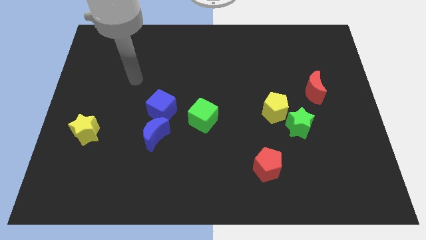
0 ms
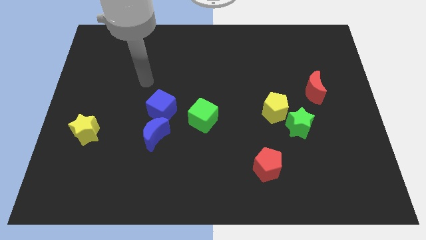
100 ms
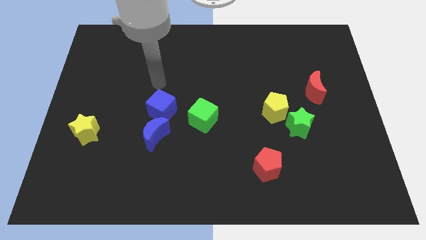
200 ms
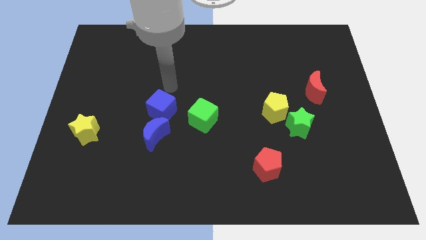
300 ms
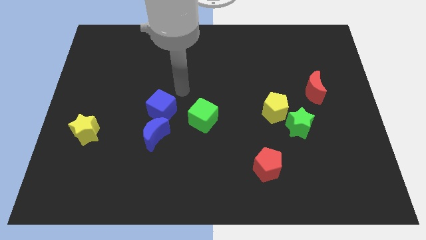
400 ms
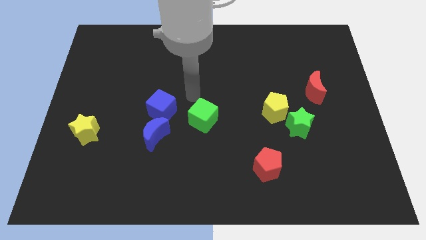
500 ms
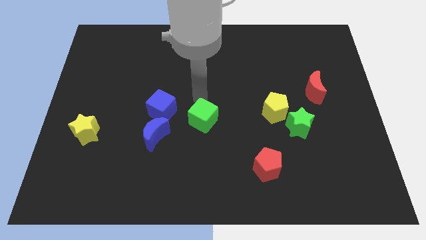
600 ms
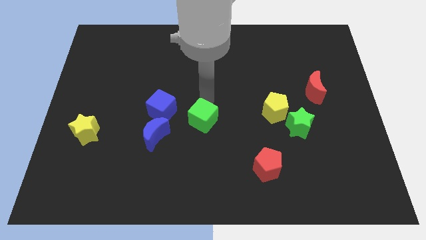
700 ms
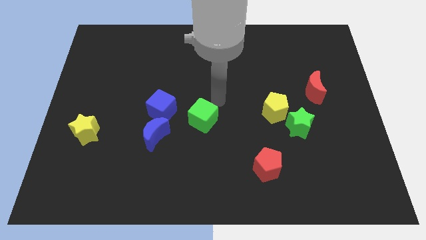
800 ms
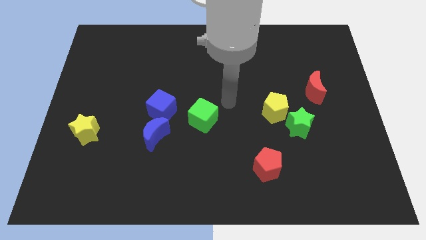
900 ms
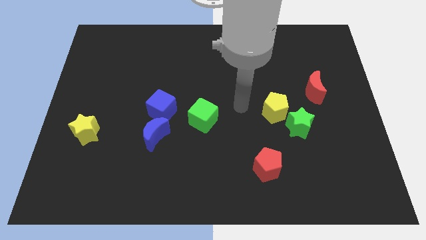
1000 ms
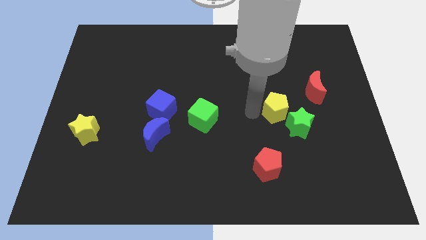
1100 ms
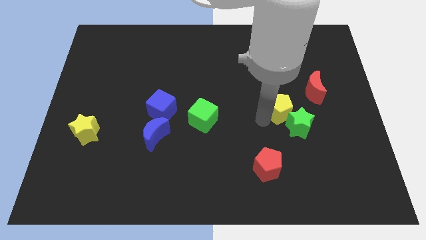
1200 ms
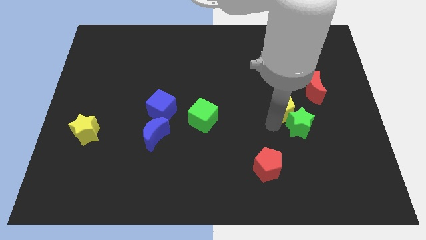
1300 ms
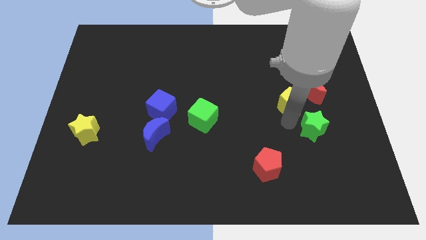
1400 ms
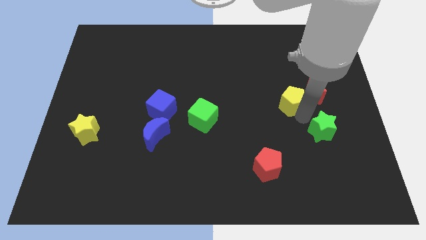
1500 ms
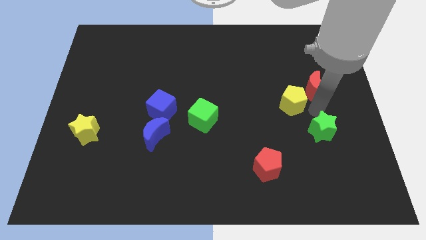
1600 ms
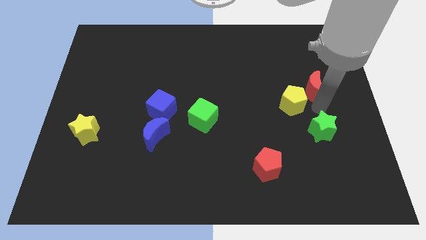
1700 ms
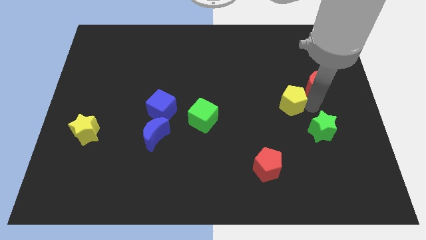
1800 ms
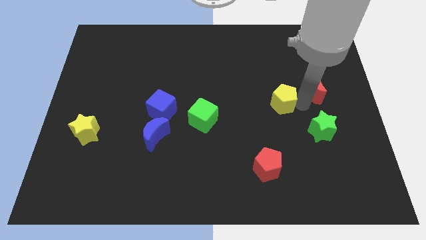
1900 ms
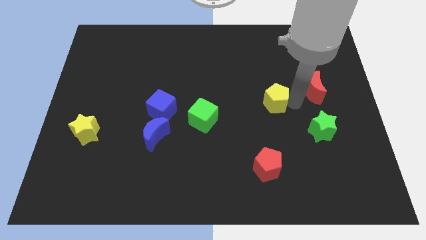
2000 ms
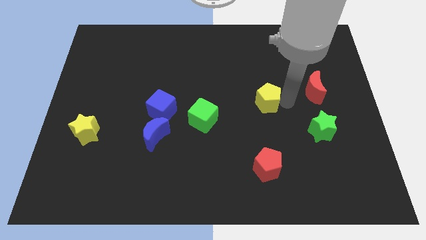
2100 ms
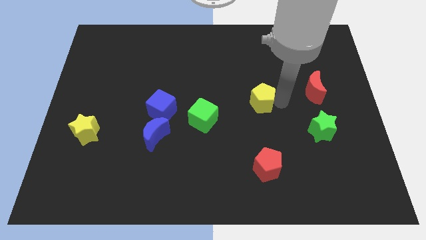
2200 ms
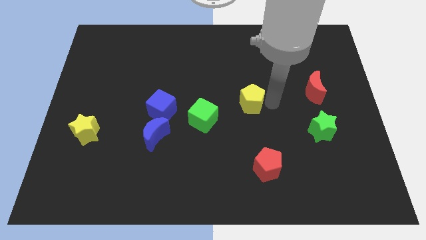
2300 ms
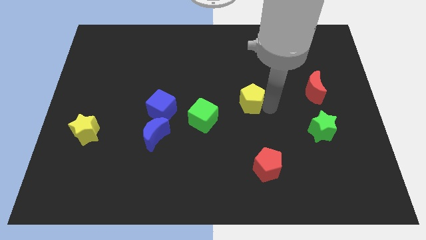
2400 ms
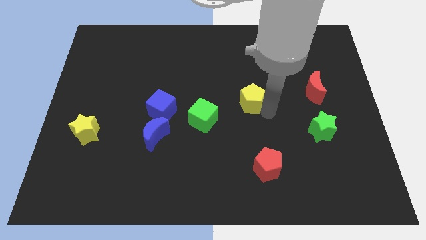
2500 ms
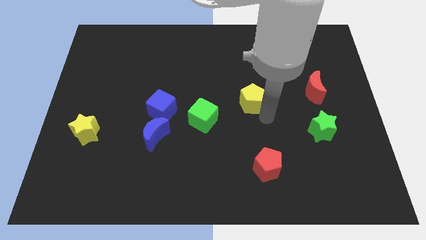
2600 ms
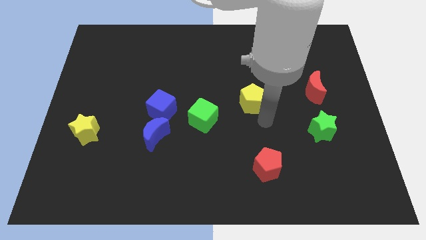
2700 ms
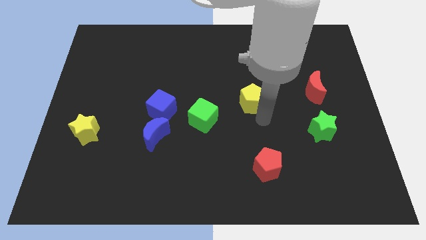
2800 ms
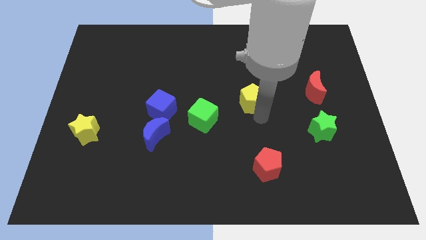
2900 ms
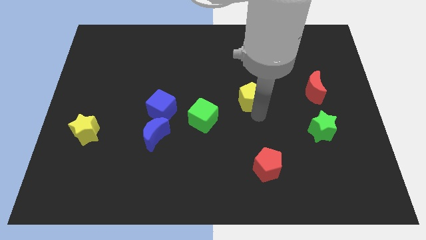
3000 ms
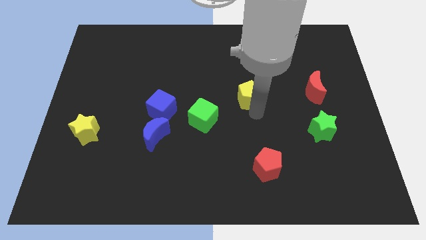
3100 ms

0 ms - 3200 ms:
slide the yellow pentagon upwards and left a little bit

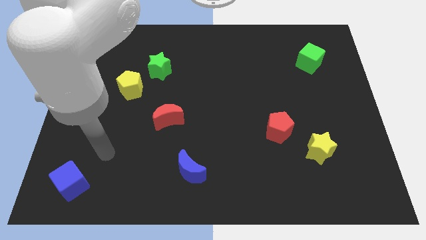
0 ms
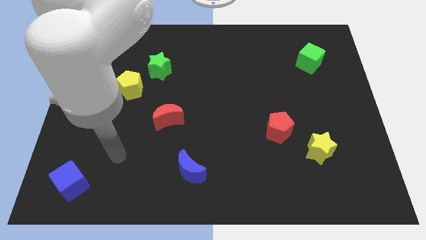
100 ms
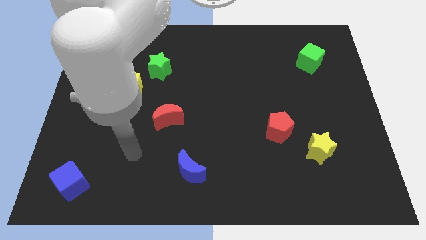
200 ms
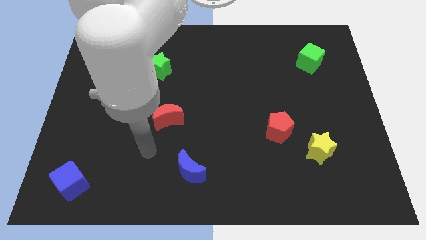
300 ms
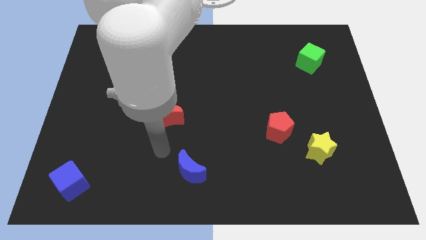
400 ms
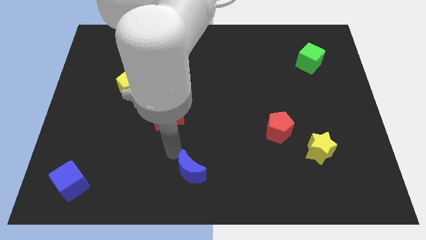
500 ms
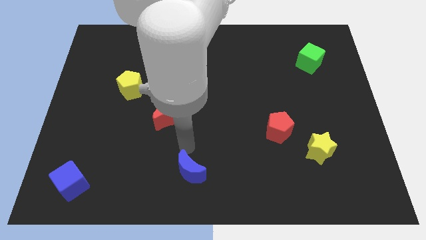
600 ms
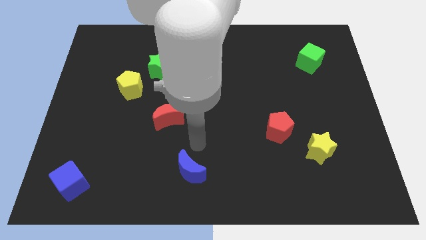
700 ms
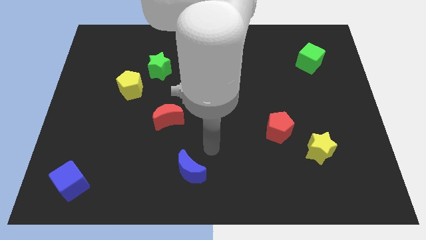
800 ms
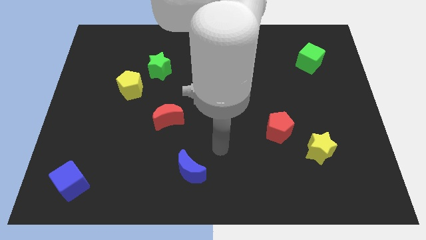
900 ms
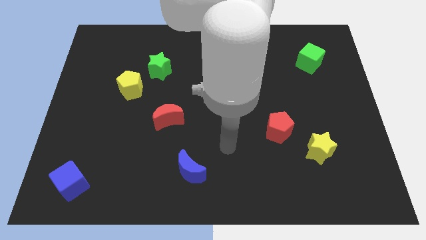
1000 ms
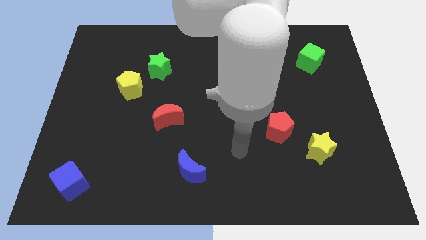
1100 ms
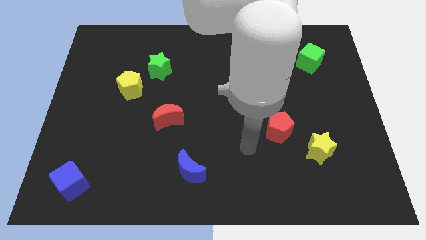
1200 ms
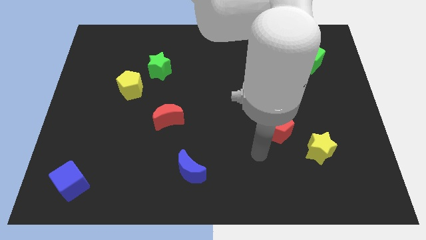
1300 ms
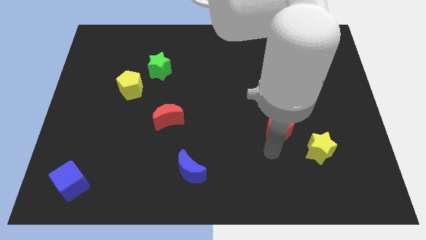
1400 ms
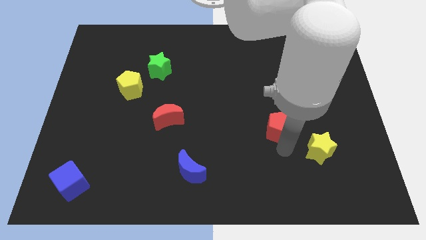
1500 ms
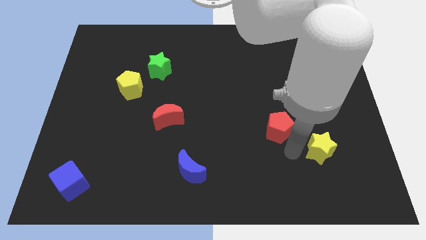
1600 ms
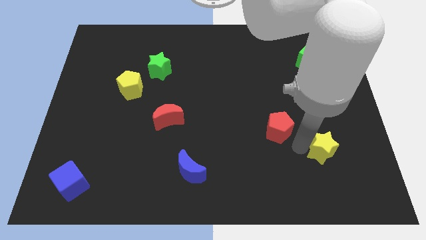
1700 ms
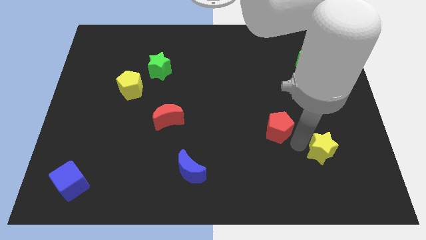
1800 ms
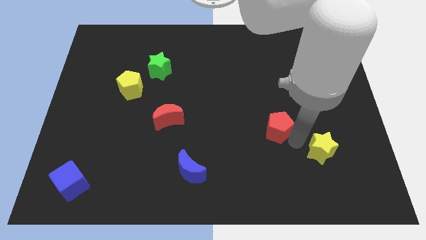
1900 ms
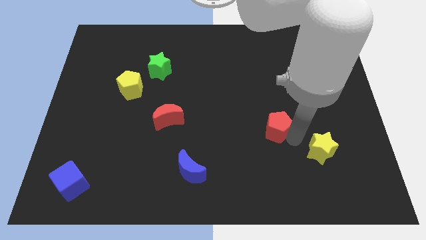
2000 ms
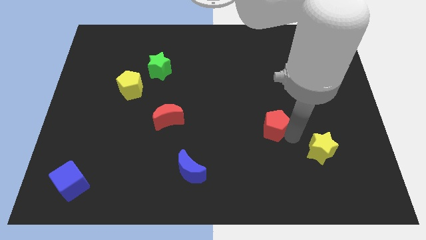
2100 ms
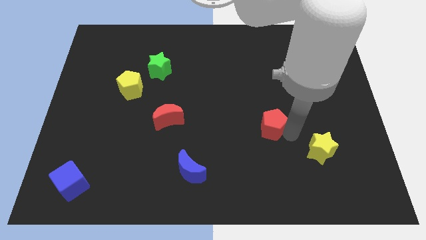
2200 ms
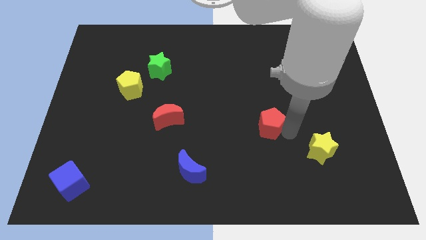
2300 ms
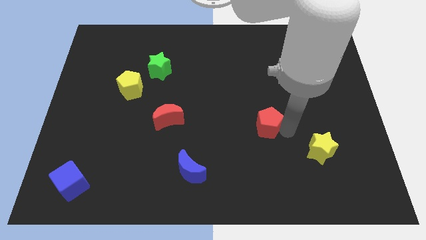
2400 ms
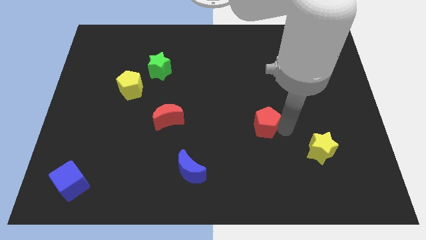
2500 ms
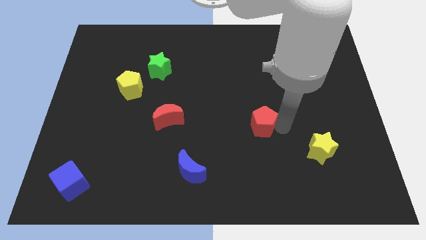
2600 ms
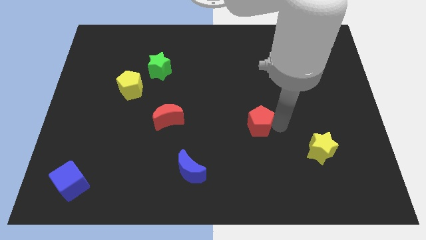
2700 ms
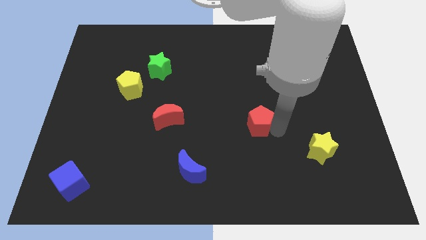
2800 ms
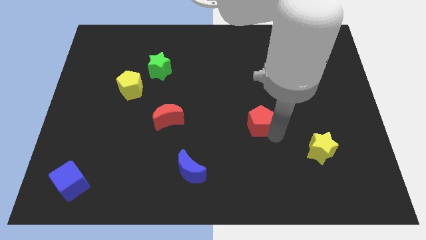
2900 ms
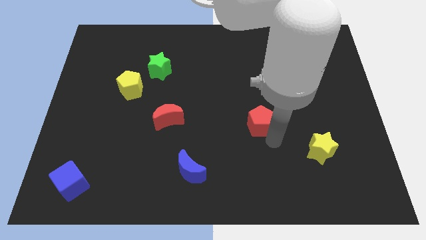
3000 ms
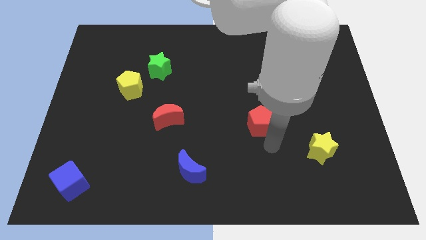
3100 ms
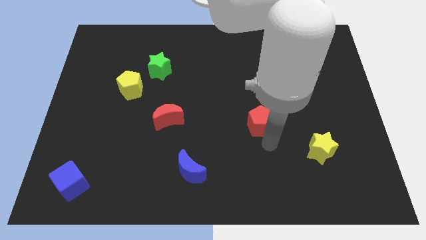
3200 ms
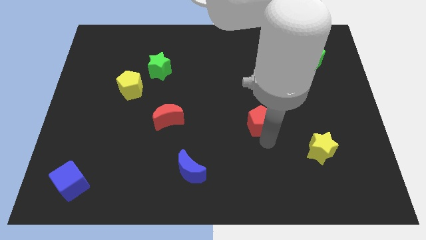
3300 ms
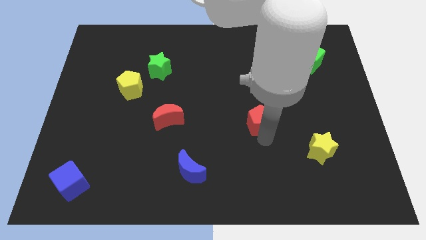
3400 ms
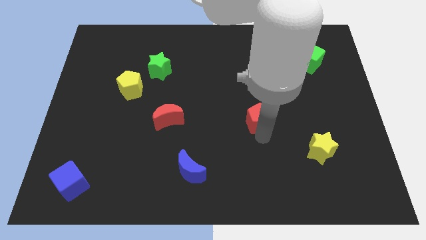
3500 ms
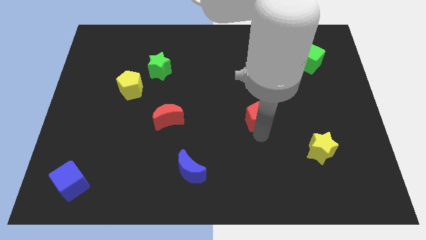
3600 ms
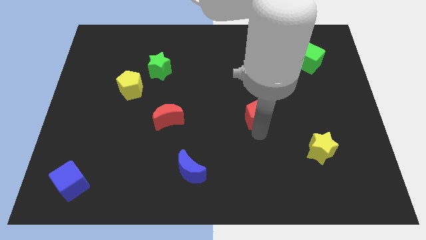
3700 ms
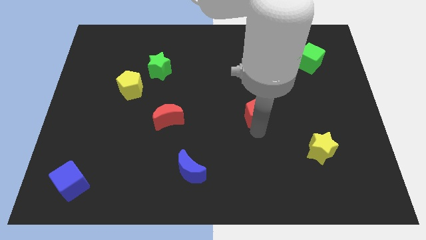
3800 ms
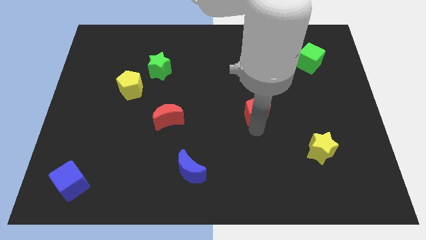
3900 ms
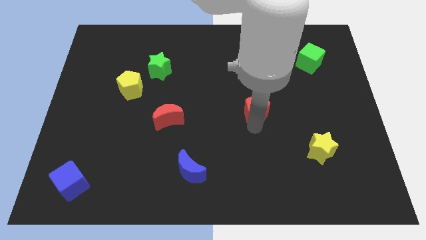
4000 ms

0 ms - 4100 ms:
move the red pentagon a bit up and then to the left

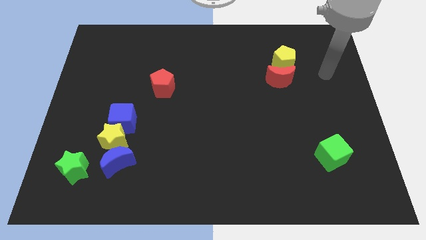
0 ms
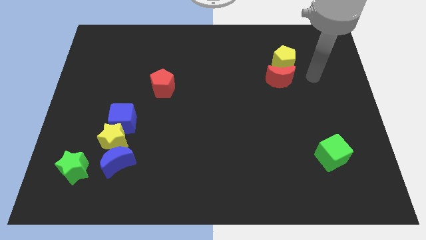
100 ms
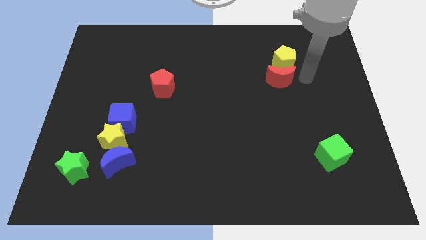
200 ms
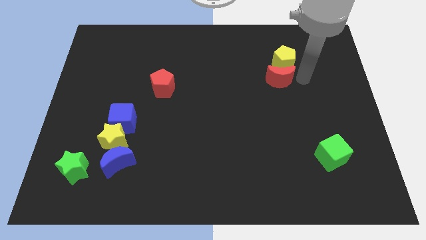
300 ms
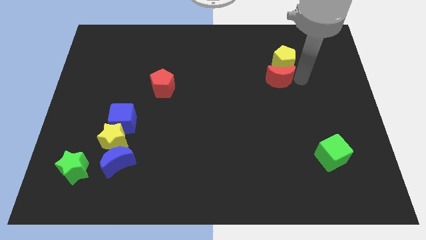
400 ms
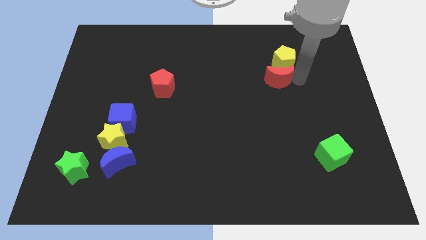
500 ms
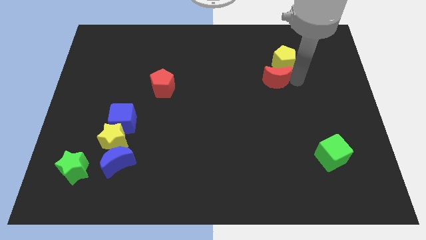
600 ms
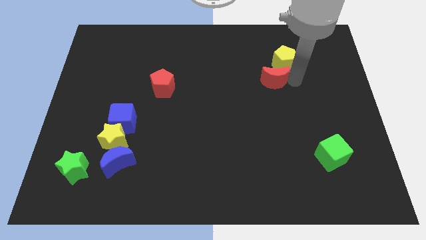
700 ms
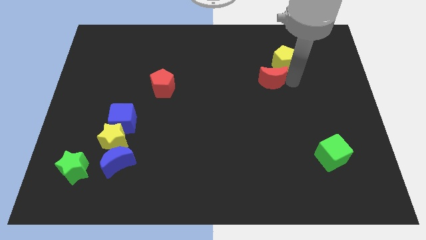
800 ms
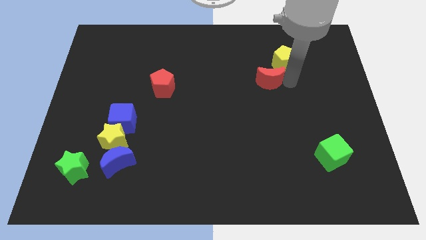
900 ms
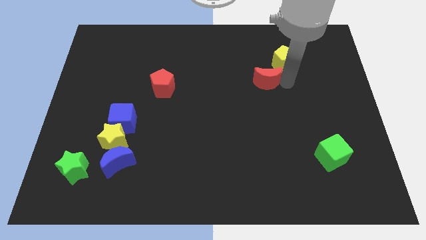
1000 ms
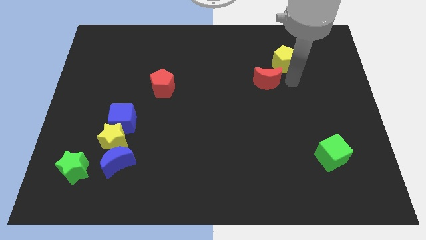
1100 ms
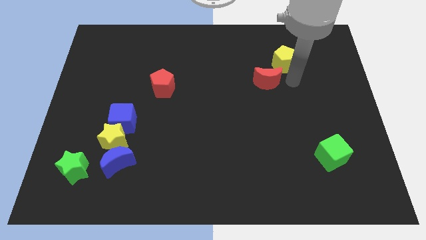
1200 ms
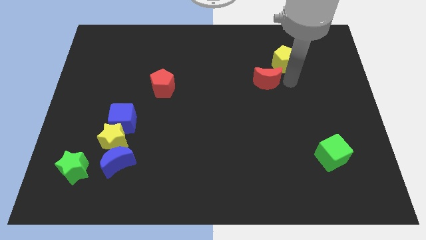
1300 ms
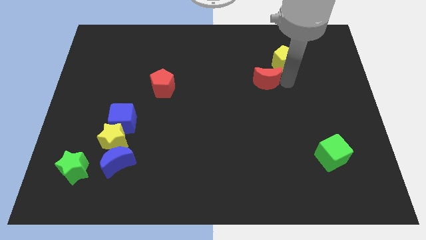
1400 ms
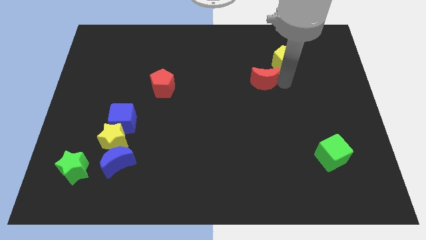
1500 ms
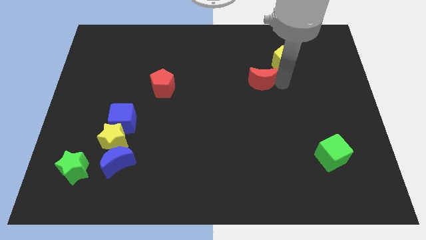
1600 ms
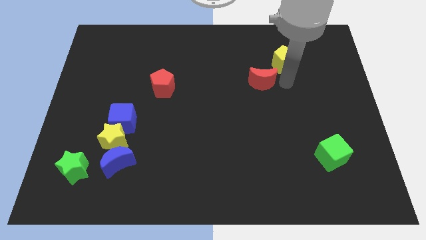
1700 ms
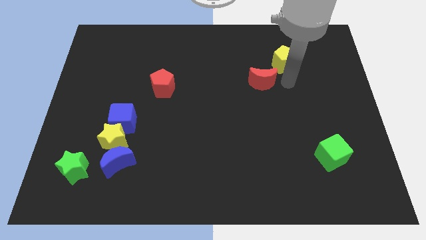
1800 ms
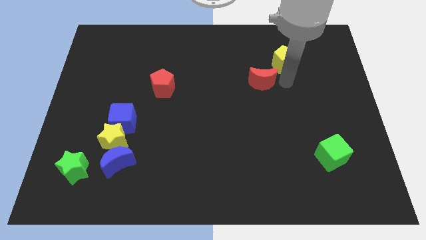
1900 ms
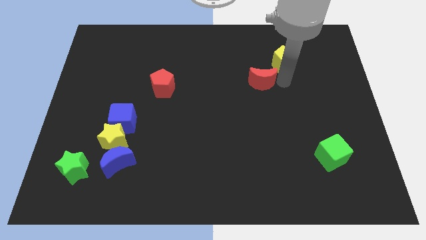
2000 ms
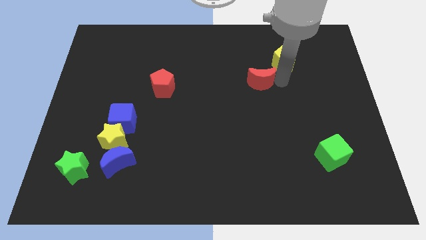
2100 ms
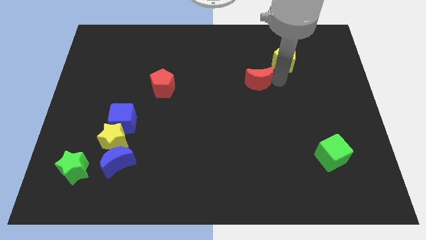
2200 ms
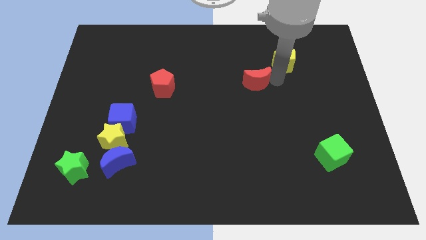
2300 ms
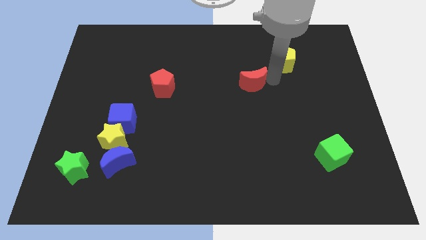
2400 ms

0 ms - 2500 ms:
slightly push the red moon left
